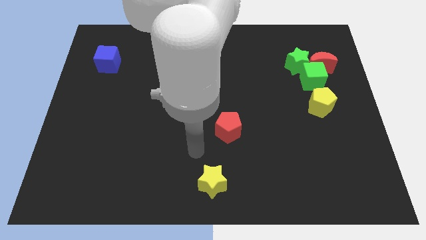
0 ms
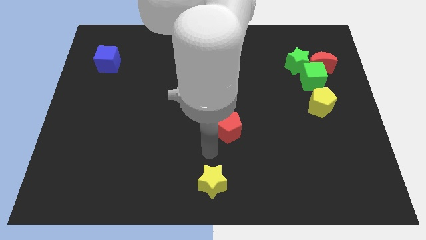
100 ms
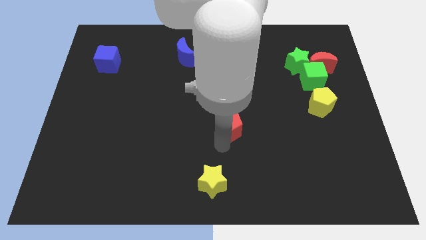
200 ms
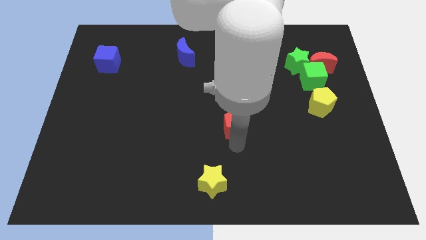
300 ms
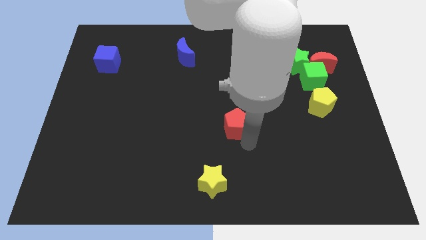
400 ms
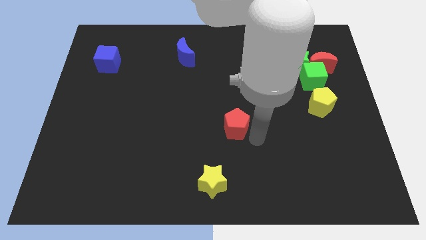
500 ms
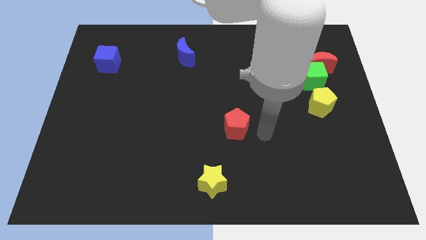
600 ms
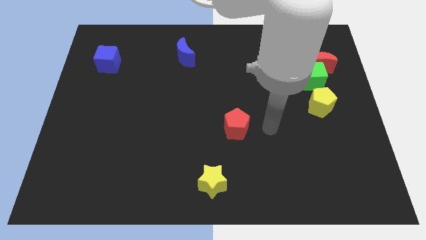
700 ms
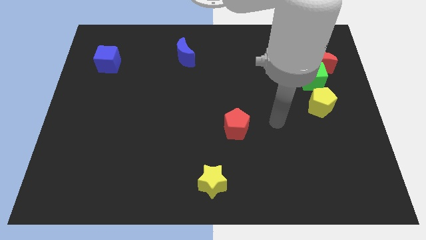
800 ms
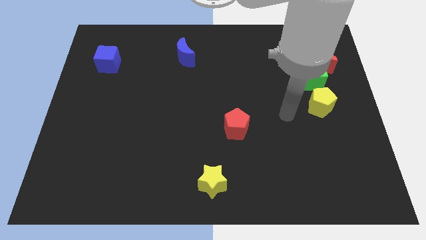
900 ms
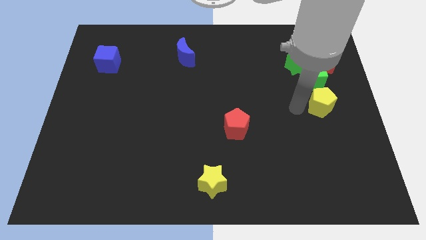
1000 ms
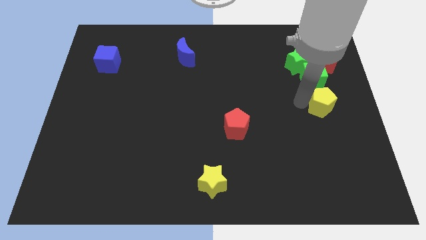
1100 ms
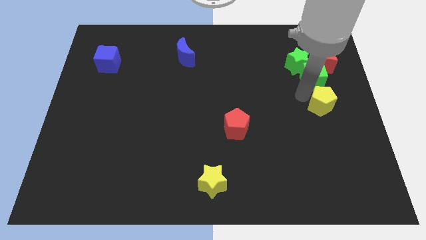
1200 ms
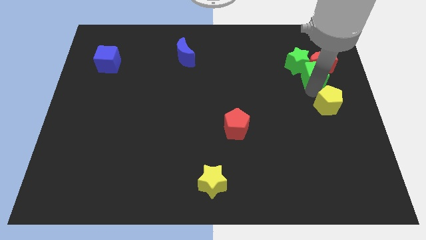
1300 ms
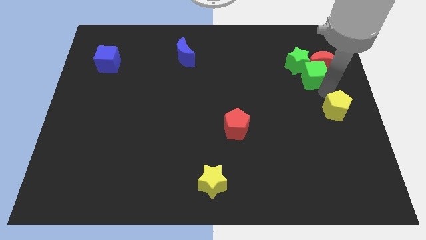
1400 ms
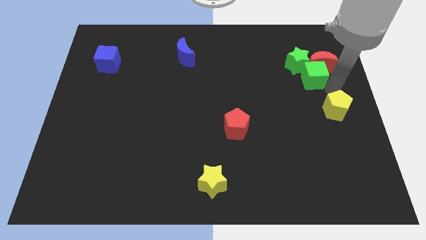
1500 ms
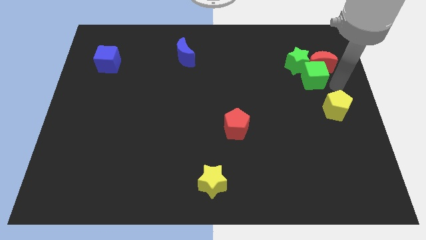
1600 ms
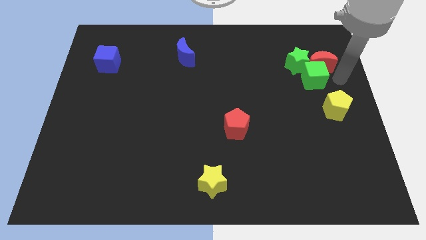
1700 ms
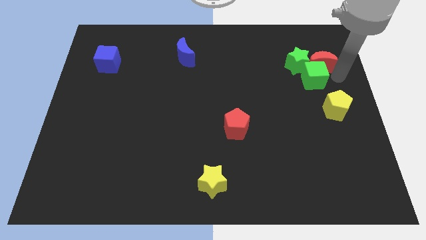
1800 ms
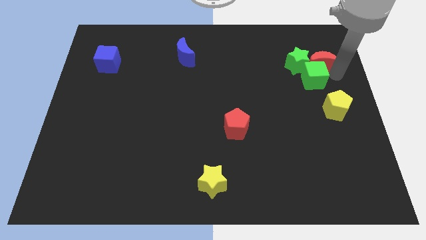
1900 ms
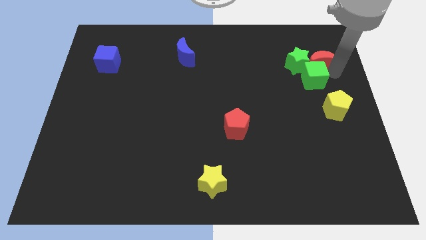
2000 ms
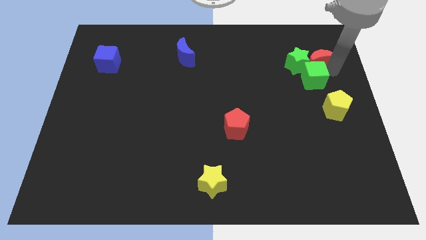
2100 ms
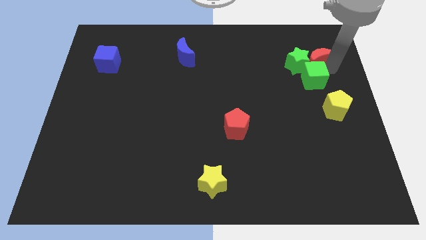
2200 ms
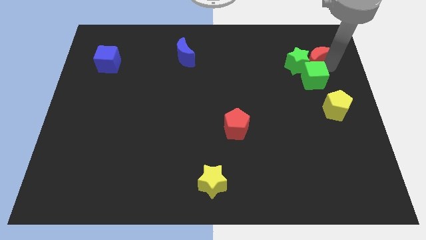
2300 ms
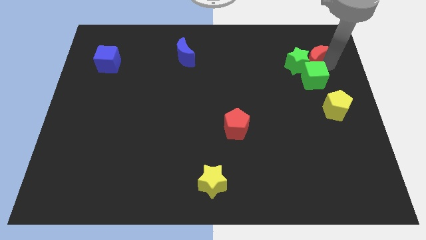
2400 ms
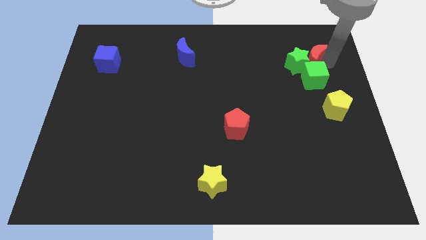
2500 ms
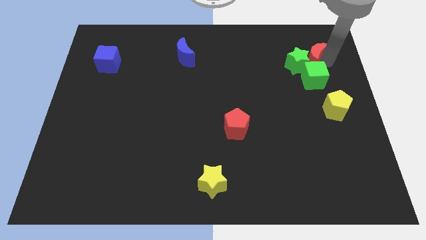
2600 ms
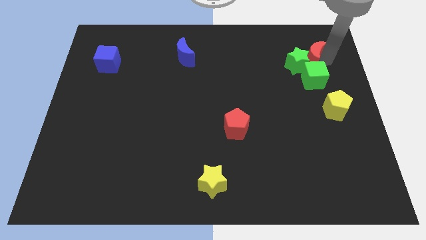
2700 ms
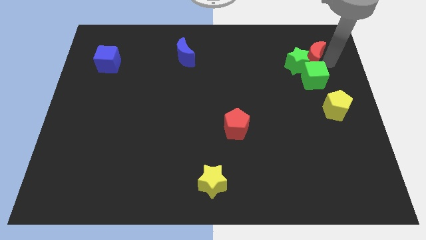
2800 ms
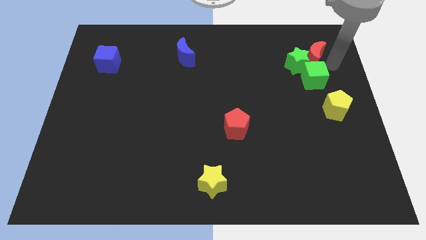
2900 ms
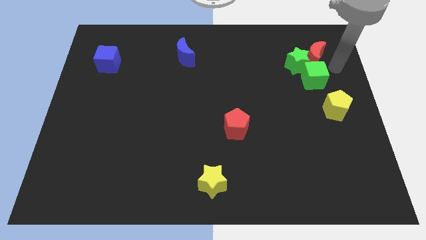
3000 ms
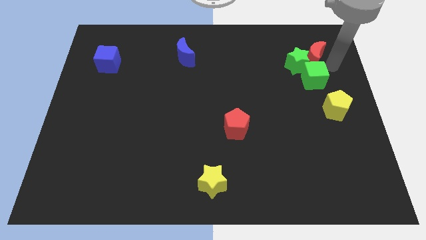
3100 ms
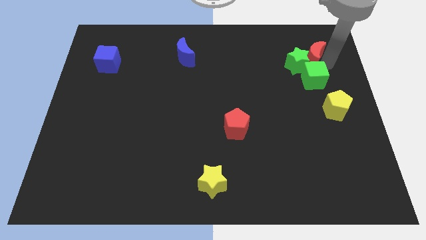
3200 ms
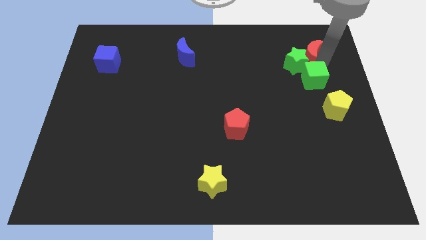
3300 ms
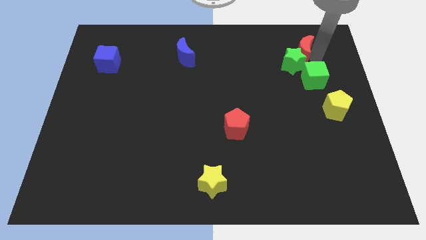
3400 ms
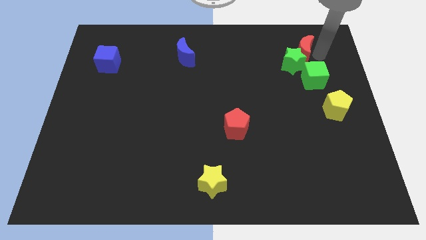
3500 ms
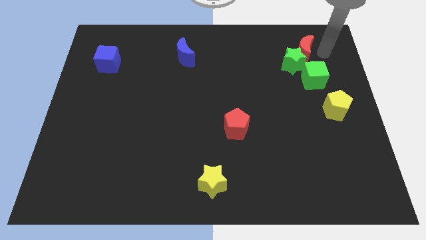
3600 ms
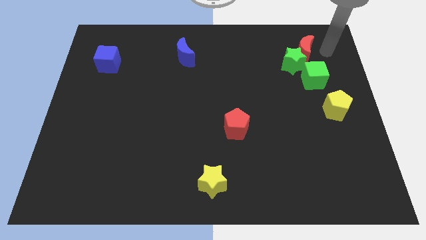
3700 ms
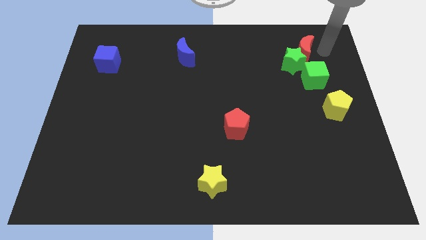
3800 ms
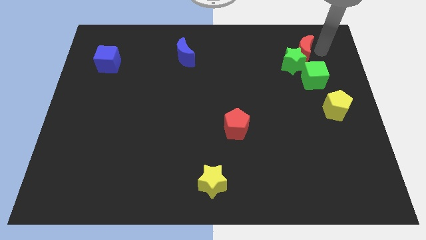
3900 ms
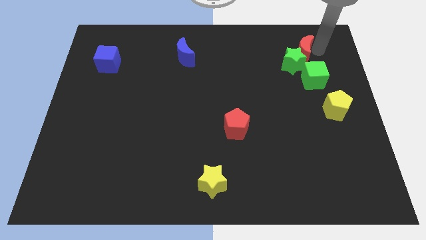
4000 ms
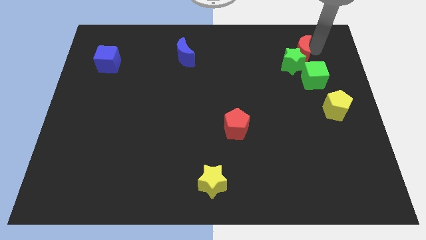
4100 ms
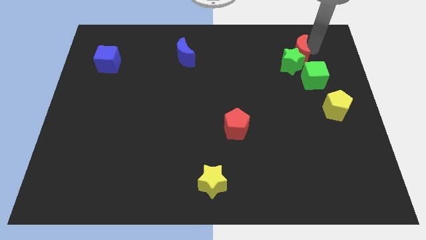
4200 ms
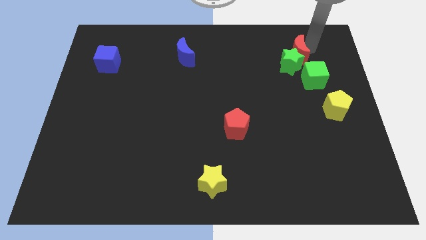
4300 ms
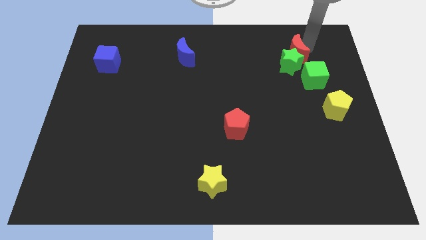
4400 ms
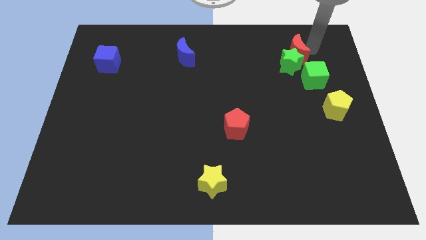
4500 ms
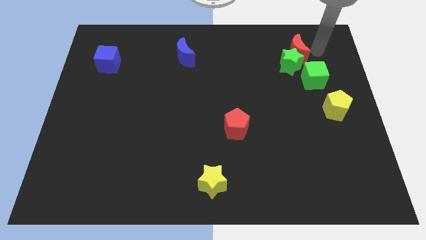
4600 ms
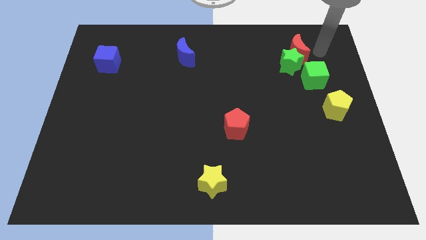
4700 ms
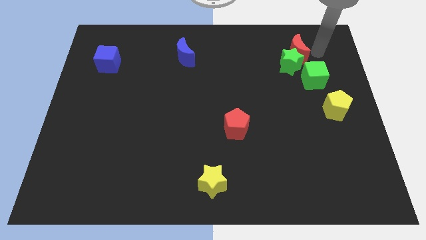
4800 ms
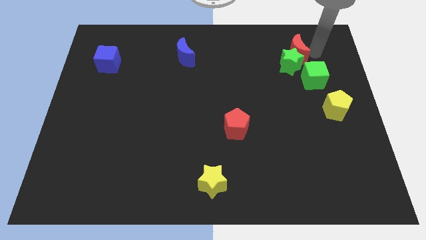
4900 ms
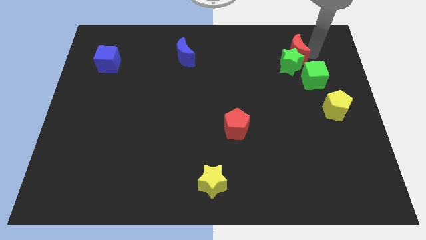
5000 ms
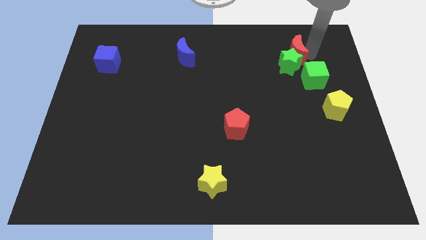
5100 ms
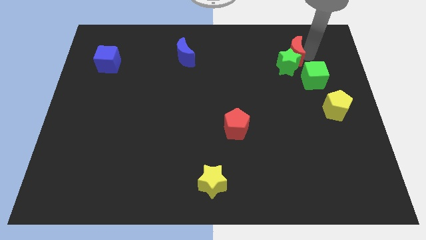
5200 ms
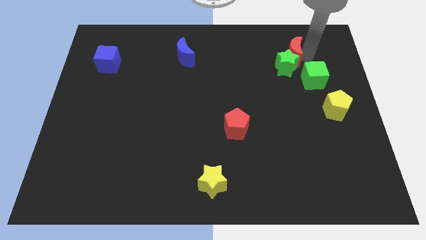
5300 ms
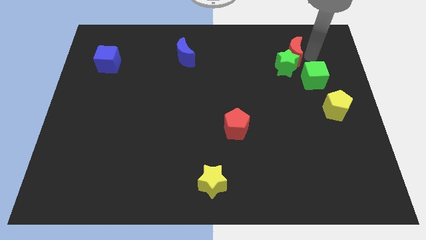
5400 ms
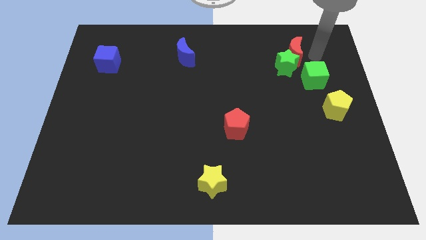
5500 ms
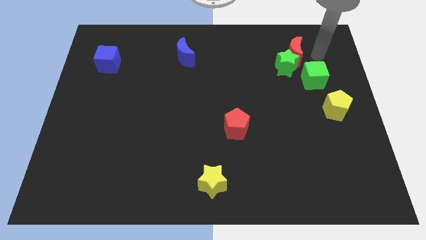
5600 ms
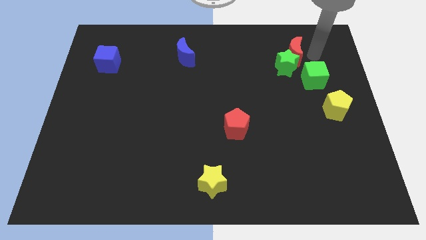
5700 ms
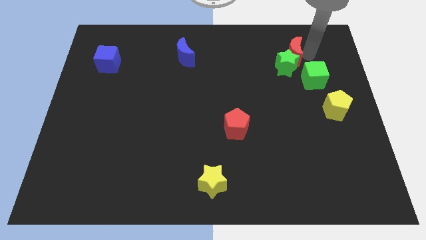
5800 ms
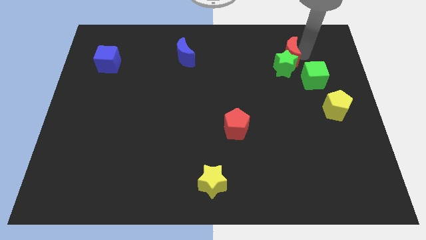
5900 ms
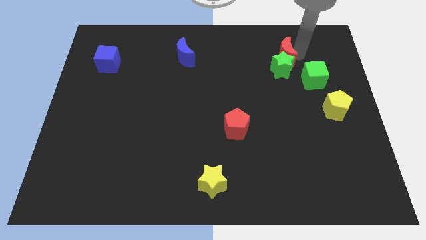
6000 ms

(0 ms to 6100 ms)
push the red moon somewhat left

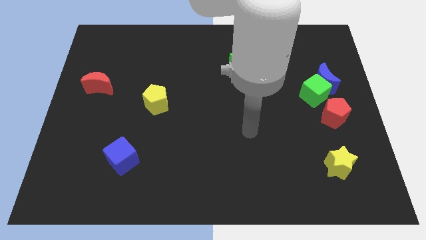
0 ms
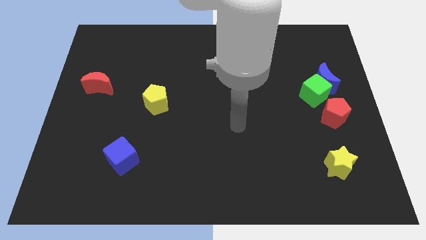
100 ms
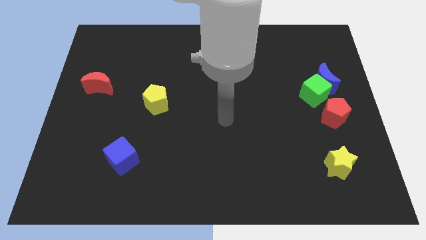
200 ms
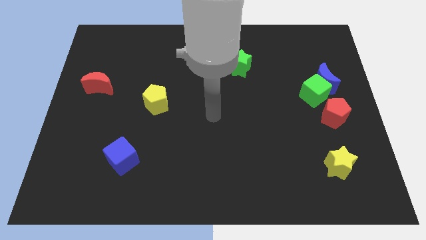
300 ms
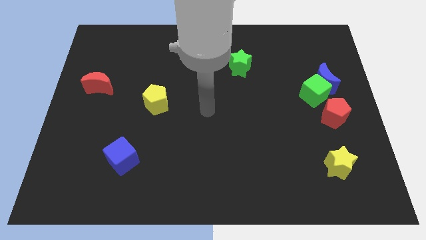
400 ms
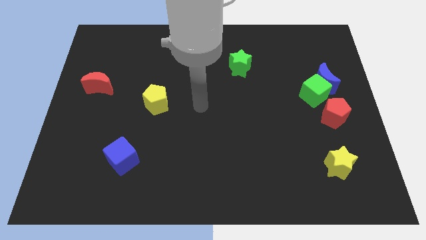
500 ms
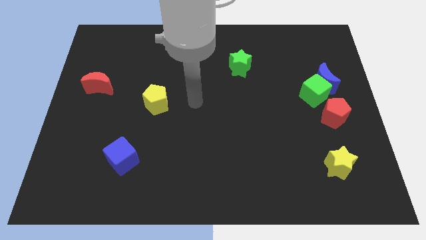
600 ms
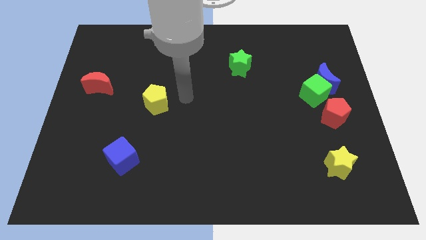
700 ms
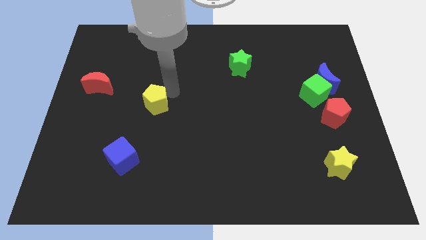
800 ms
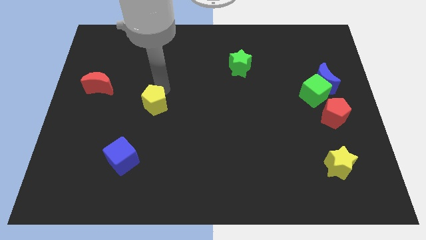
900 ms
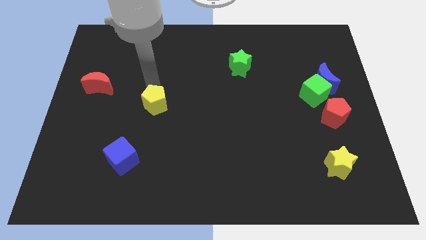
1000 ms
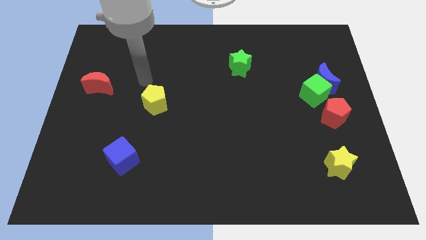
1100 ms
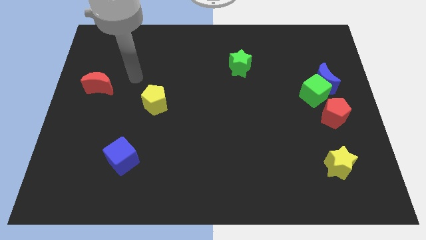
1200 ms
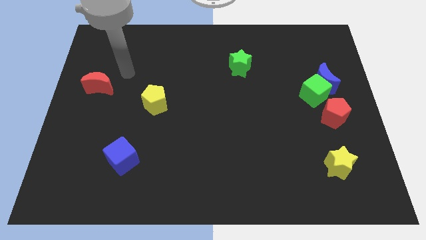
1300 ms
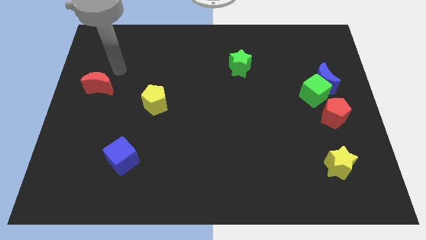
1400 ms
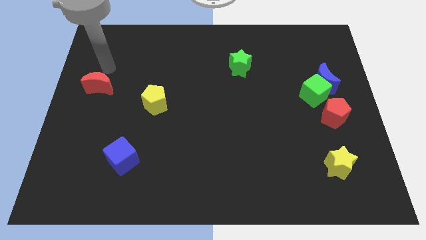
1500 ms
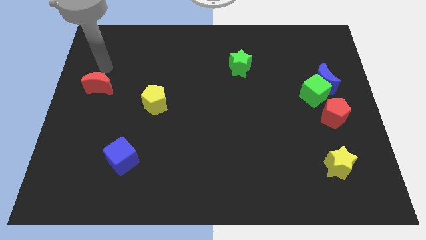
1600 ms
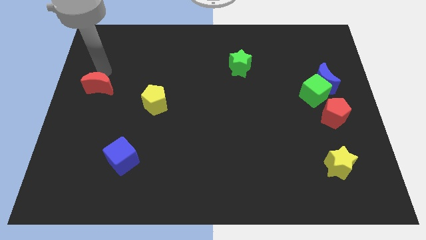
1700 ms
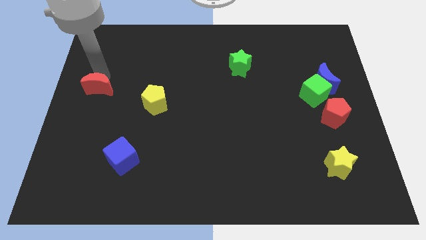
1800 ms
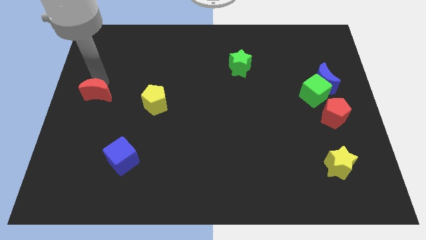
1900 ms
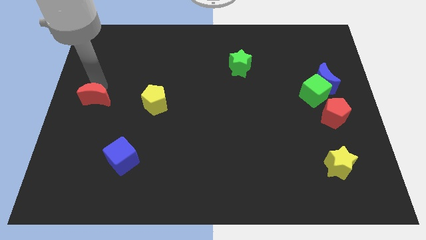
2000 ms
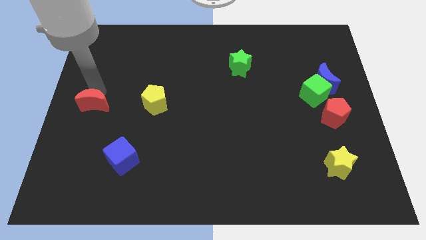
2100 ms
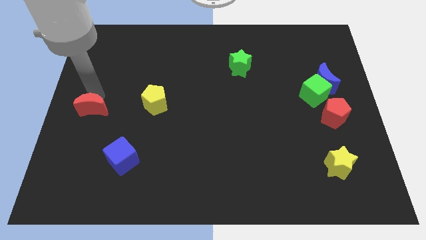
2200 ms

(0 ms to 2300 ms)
slide the red moon slightly down

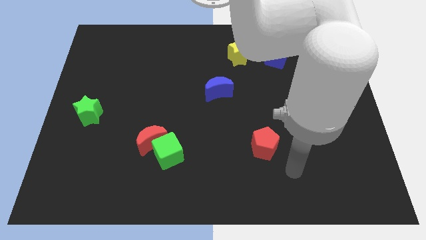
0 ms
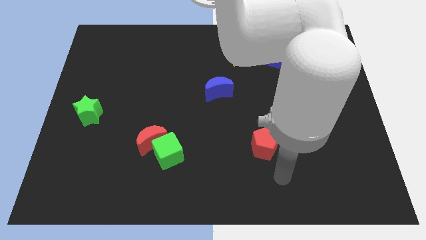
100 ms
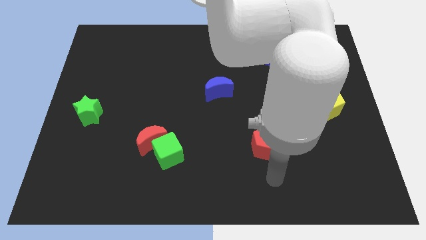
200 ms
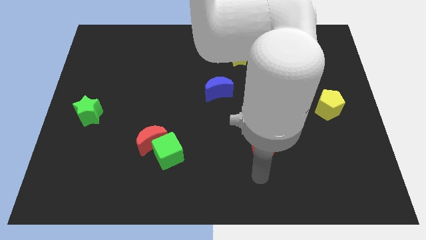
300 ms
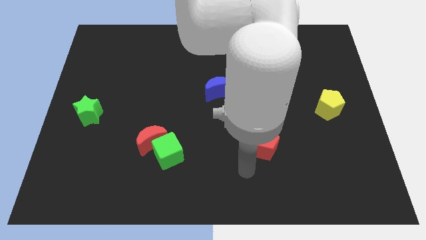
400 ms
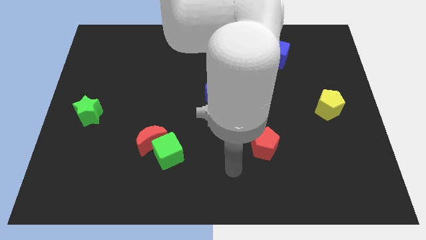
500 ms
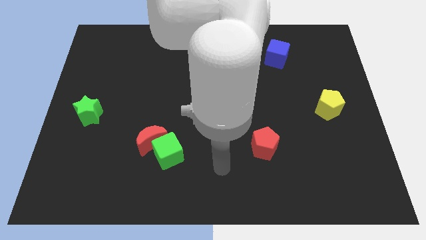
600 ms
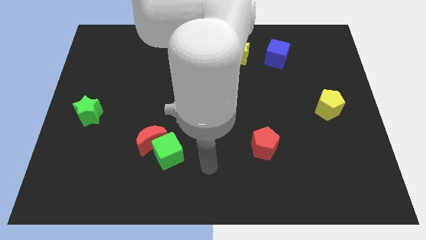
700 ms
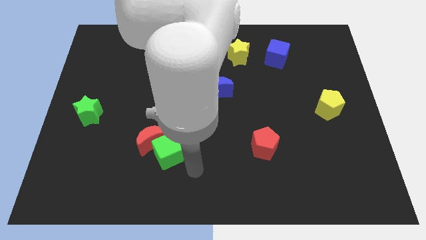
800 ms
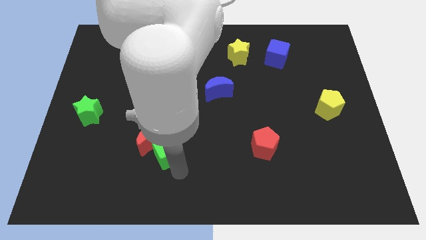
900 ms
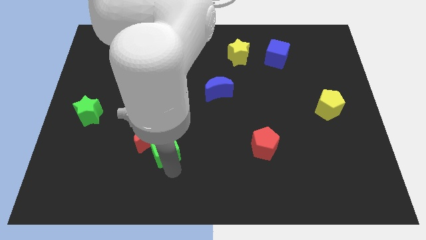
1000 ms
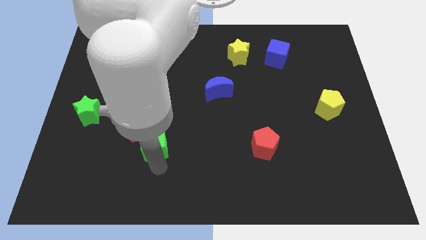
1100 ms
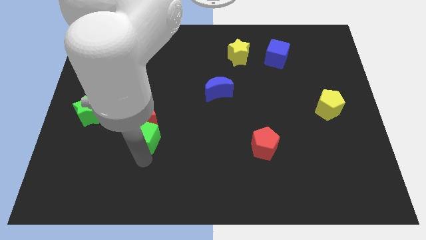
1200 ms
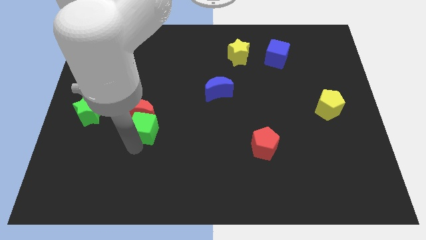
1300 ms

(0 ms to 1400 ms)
move the red moon a little up
